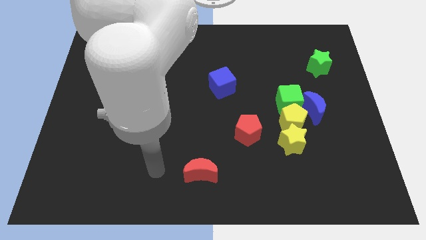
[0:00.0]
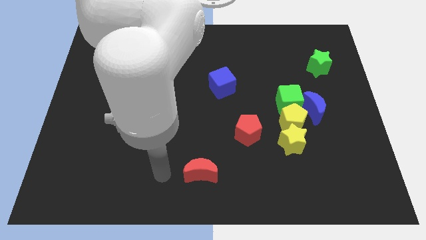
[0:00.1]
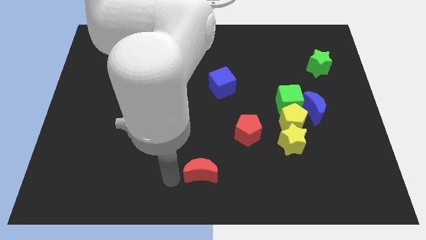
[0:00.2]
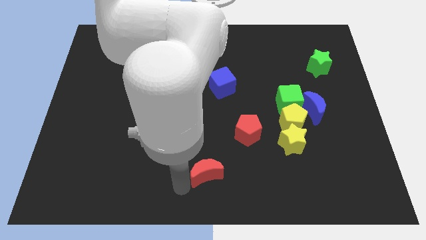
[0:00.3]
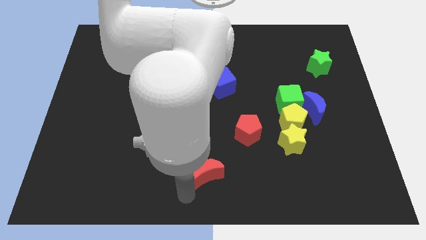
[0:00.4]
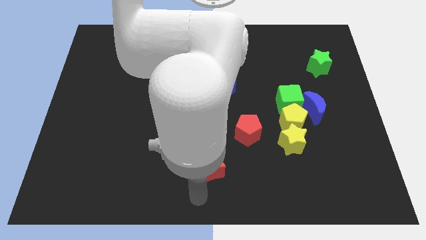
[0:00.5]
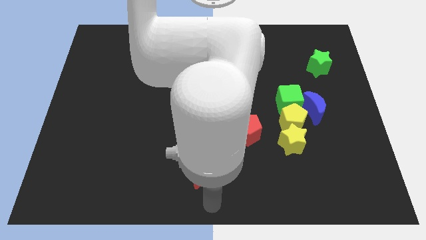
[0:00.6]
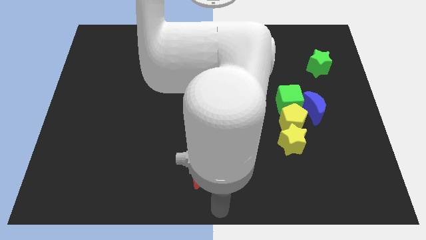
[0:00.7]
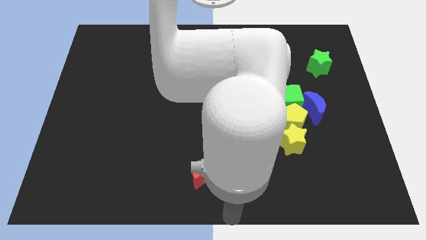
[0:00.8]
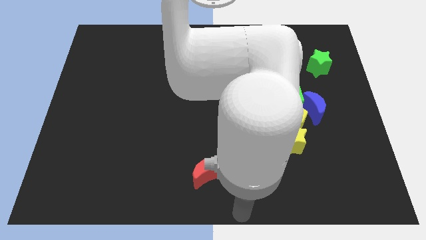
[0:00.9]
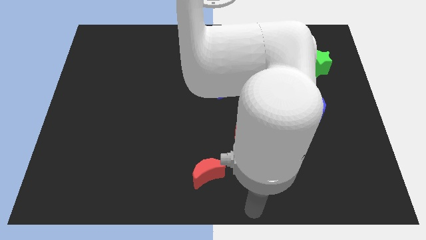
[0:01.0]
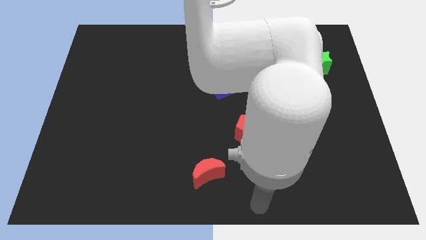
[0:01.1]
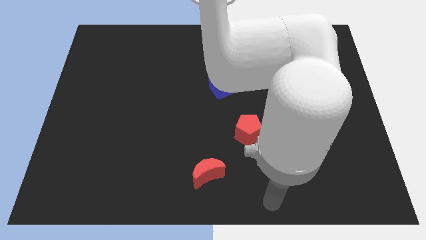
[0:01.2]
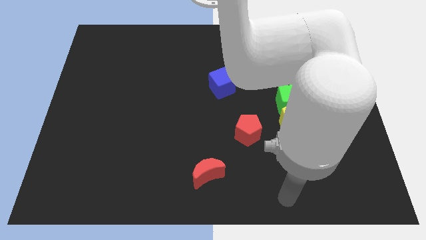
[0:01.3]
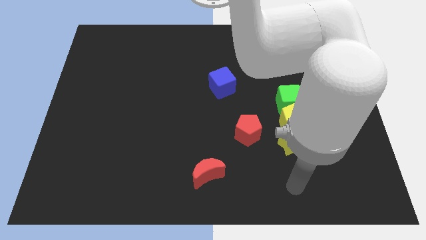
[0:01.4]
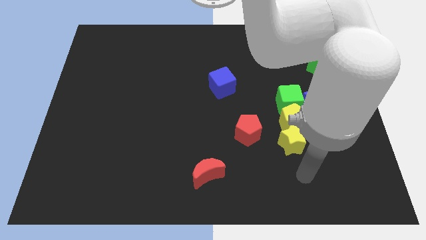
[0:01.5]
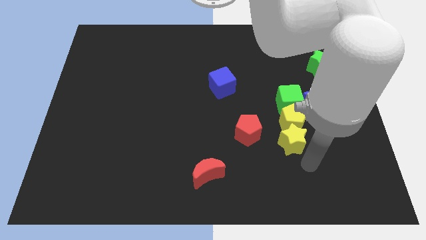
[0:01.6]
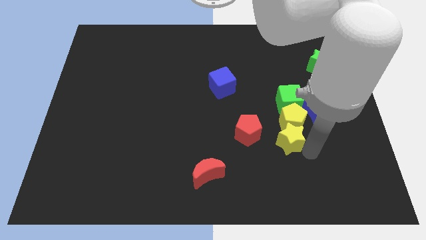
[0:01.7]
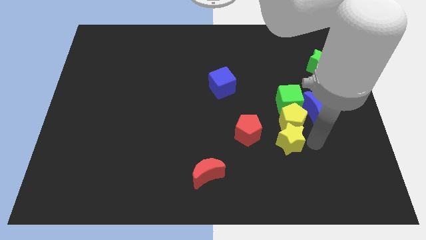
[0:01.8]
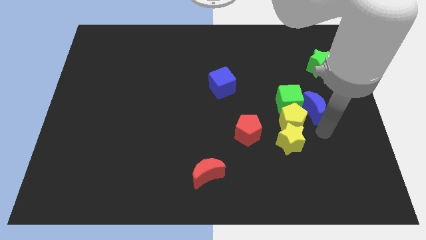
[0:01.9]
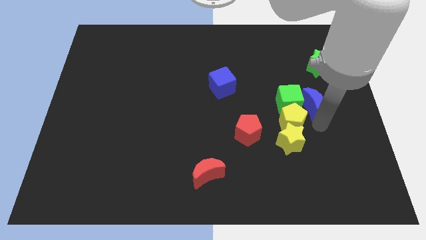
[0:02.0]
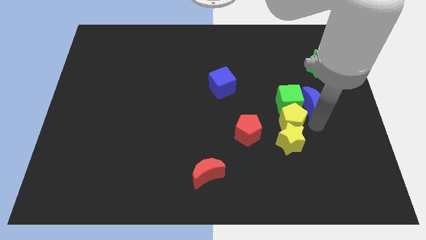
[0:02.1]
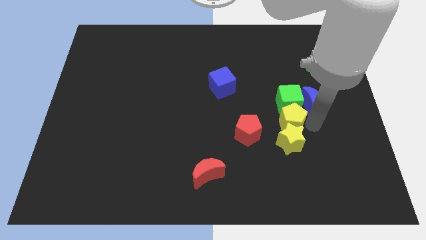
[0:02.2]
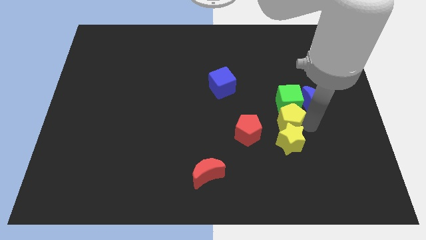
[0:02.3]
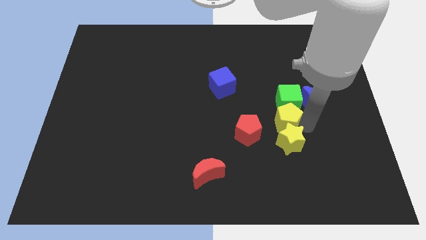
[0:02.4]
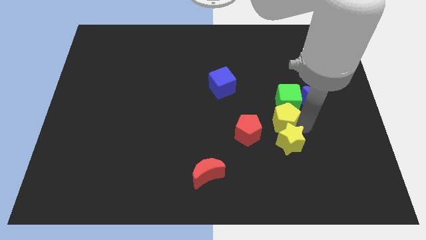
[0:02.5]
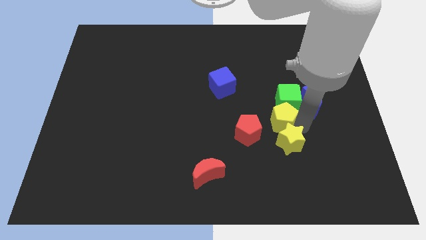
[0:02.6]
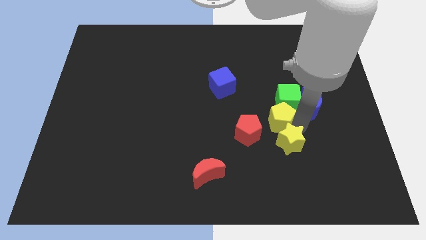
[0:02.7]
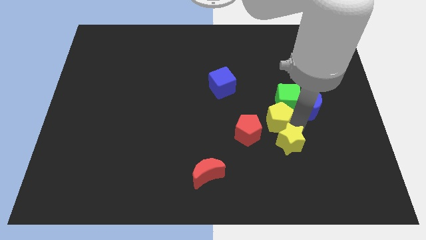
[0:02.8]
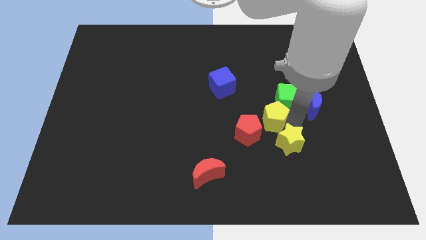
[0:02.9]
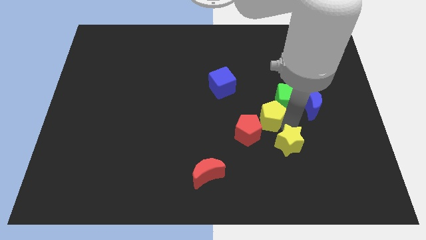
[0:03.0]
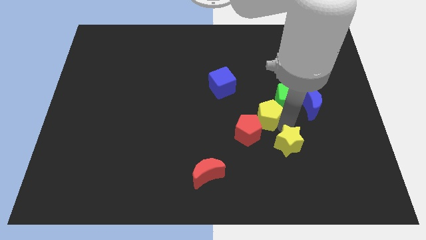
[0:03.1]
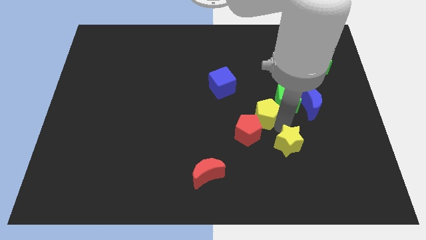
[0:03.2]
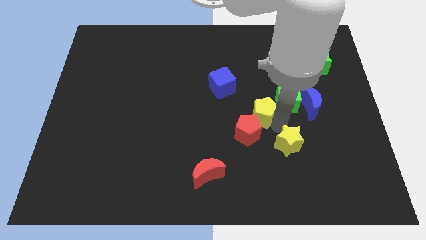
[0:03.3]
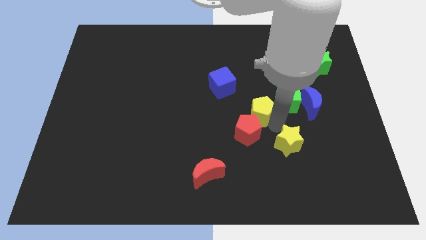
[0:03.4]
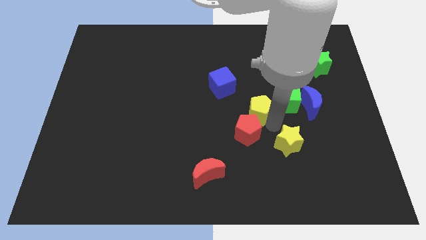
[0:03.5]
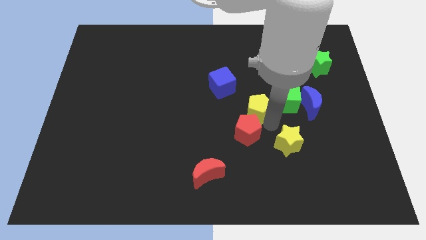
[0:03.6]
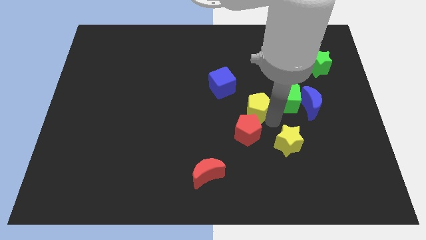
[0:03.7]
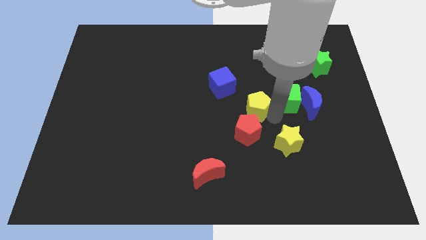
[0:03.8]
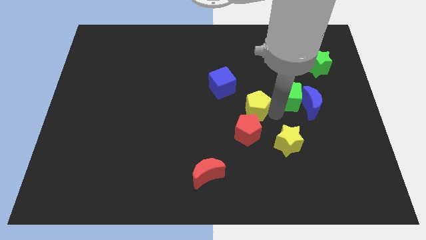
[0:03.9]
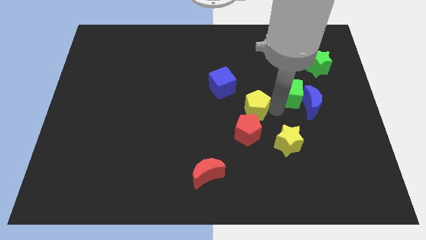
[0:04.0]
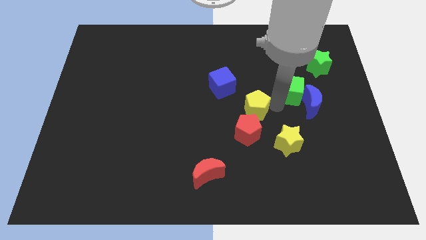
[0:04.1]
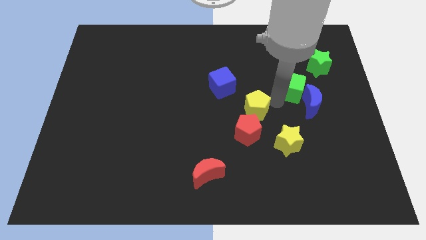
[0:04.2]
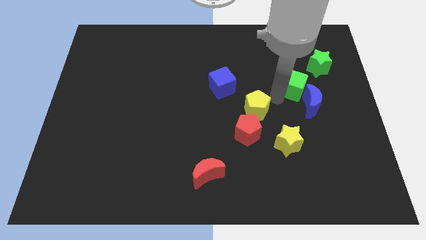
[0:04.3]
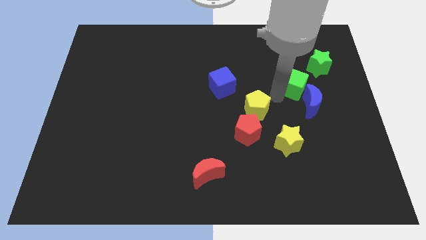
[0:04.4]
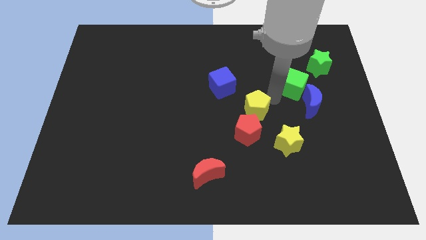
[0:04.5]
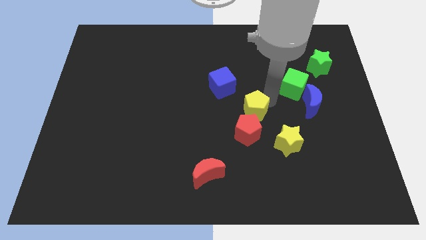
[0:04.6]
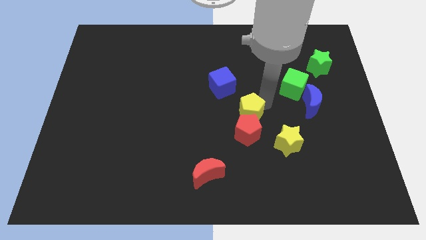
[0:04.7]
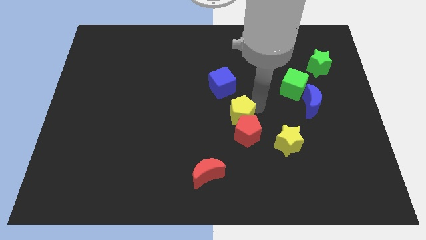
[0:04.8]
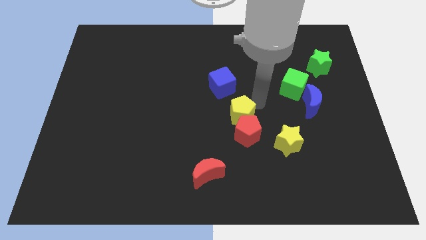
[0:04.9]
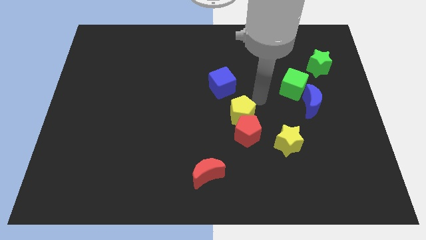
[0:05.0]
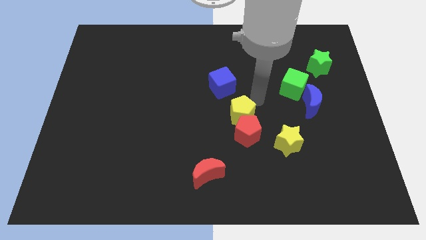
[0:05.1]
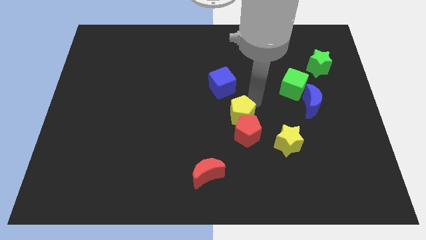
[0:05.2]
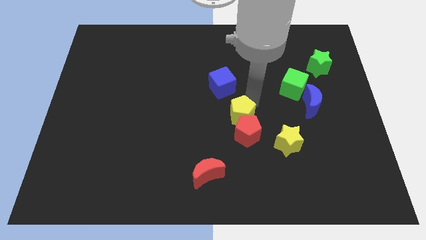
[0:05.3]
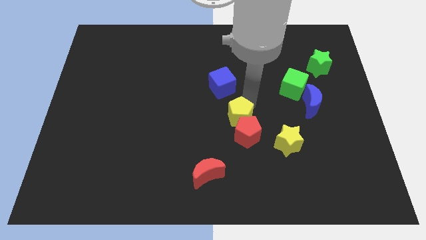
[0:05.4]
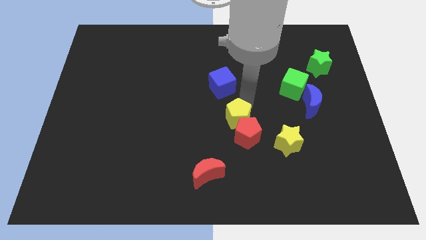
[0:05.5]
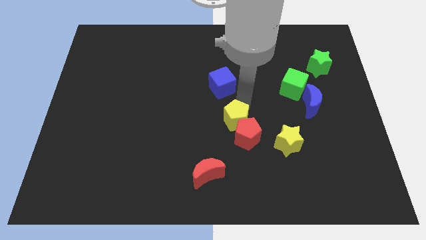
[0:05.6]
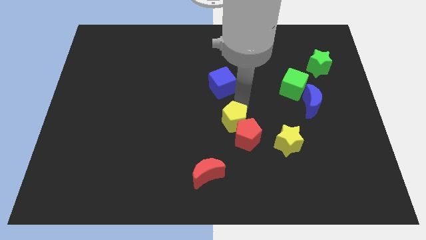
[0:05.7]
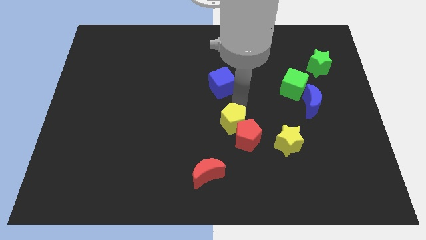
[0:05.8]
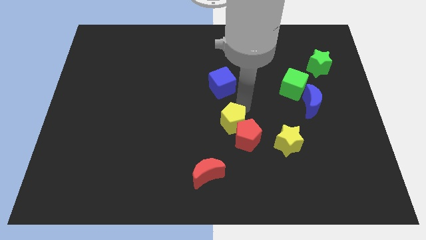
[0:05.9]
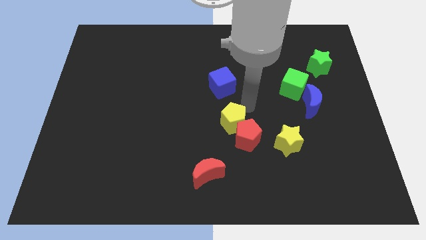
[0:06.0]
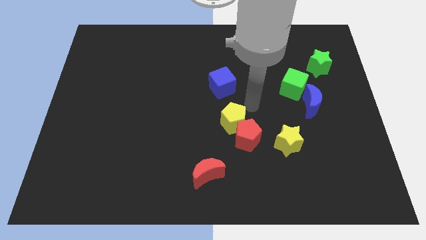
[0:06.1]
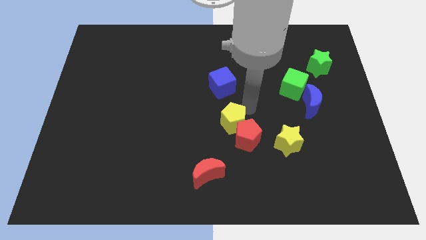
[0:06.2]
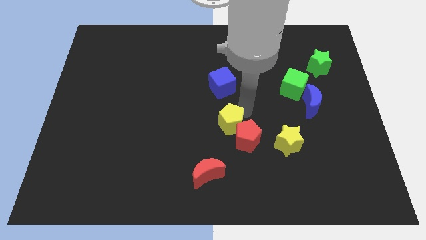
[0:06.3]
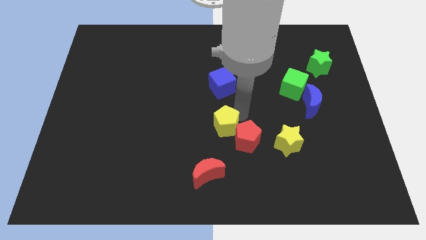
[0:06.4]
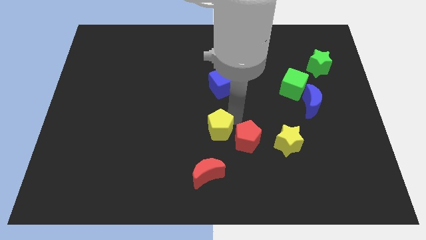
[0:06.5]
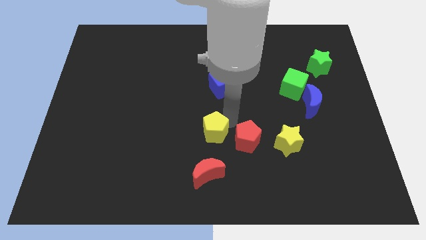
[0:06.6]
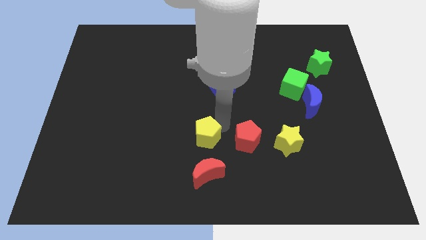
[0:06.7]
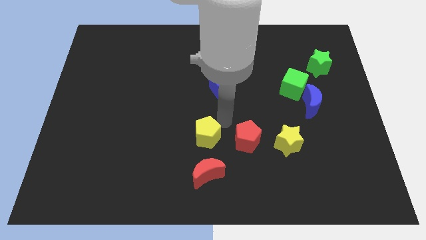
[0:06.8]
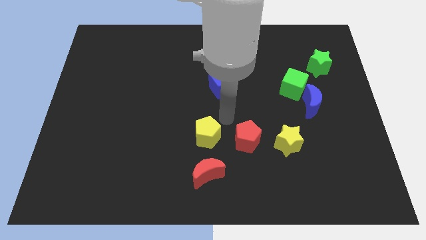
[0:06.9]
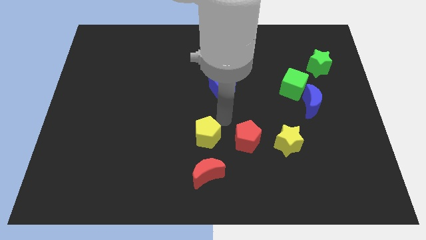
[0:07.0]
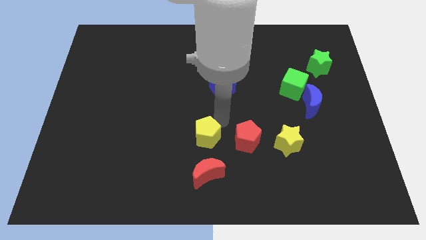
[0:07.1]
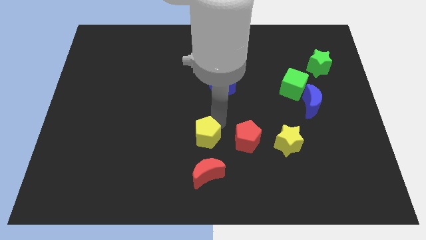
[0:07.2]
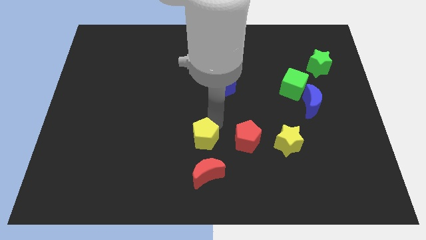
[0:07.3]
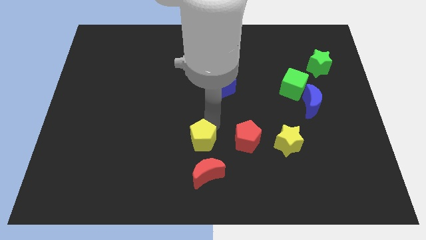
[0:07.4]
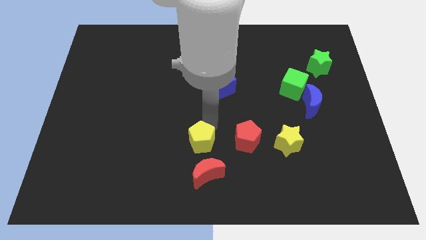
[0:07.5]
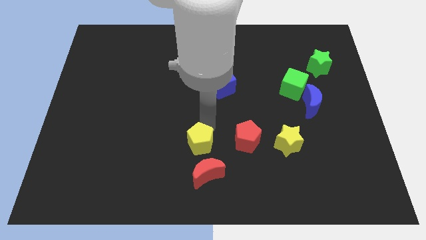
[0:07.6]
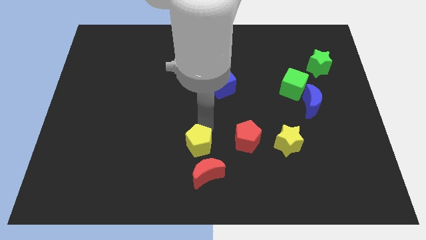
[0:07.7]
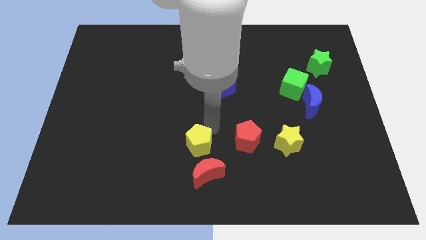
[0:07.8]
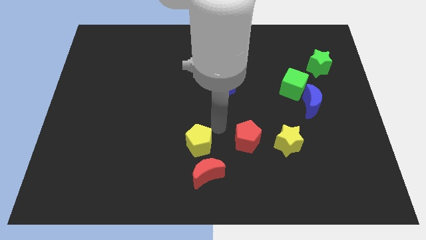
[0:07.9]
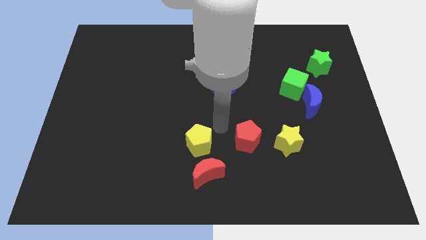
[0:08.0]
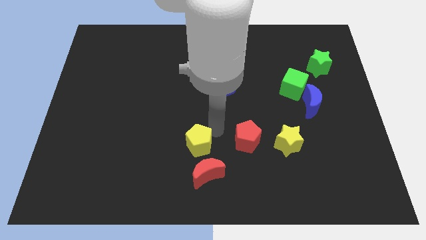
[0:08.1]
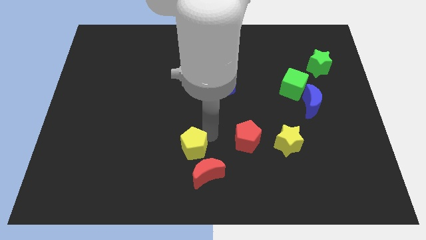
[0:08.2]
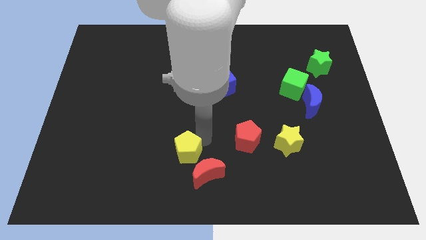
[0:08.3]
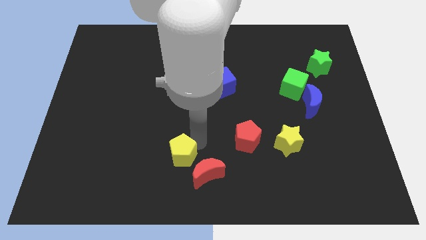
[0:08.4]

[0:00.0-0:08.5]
move the yellow pentagon just left of the red moon
